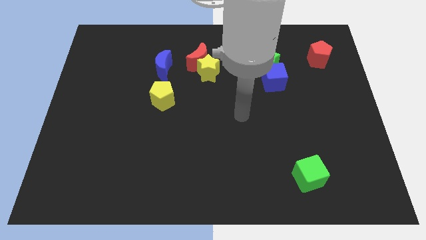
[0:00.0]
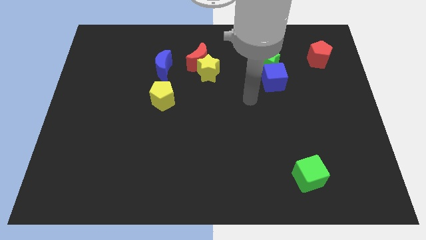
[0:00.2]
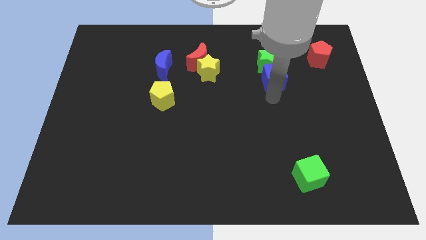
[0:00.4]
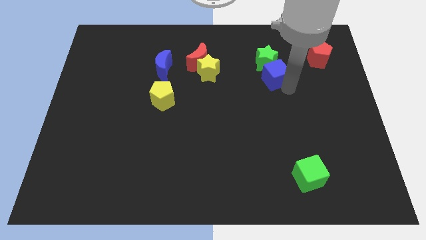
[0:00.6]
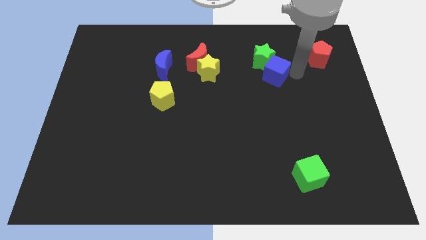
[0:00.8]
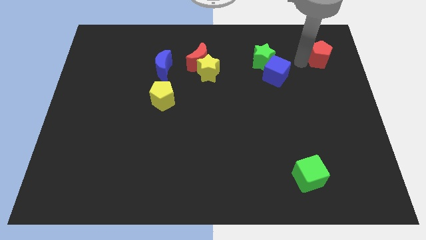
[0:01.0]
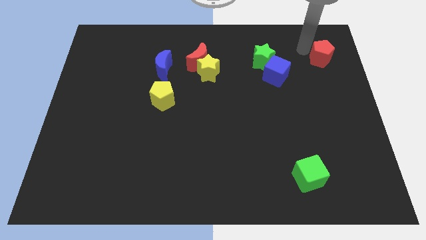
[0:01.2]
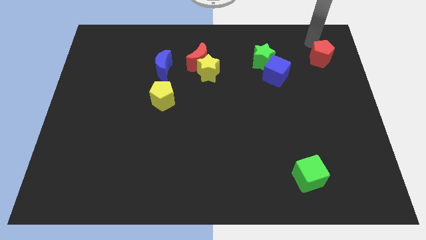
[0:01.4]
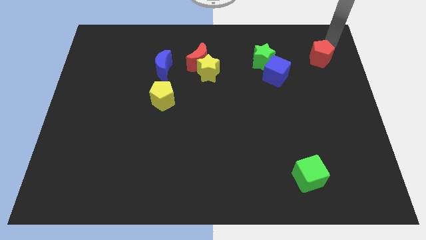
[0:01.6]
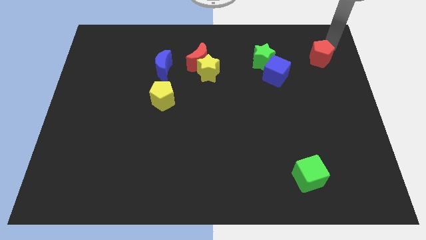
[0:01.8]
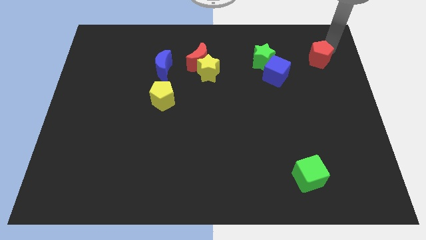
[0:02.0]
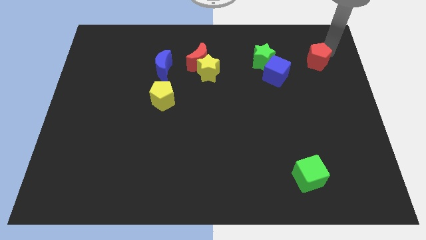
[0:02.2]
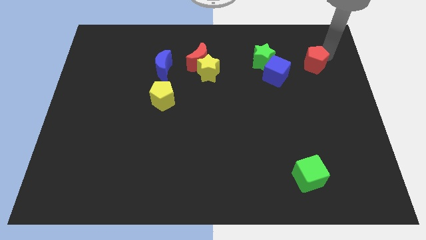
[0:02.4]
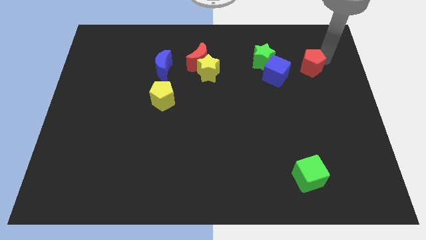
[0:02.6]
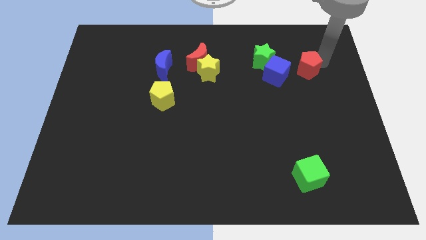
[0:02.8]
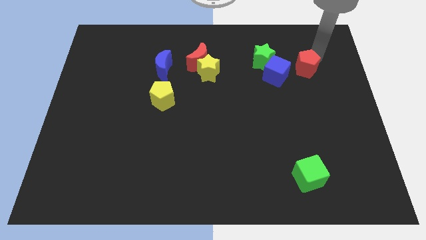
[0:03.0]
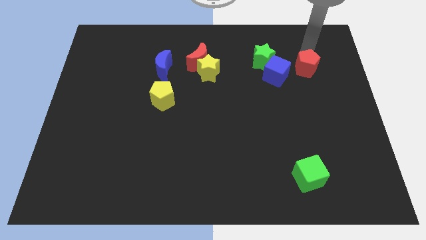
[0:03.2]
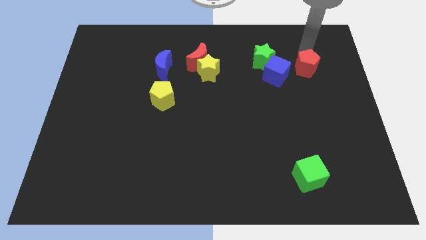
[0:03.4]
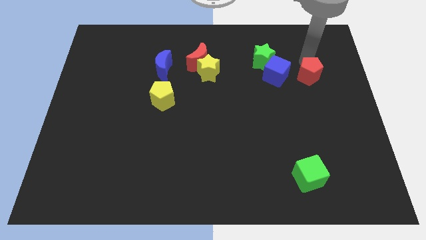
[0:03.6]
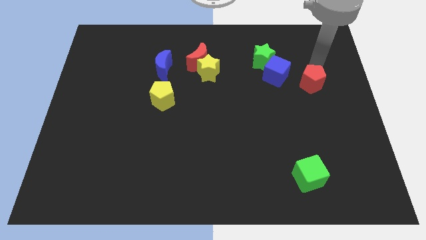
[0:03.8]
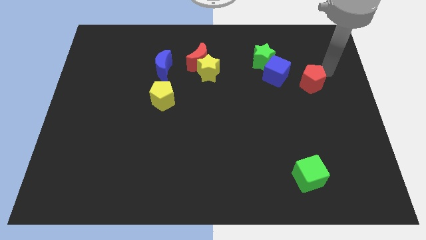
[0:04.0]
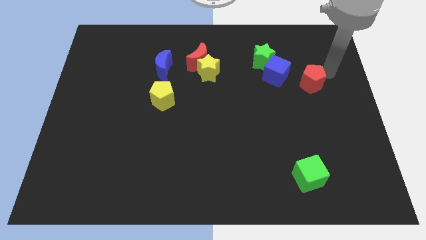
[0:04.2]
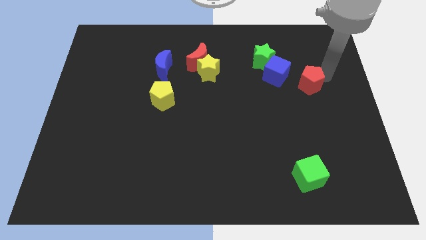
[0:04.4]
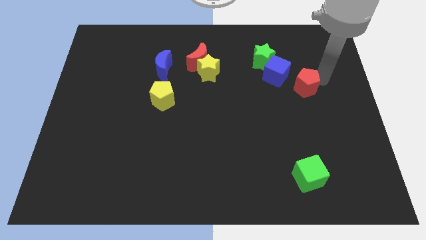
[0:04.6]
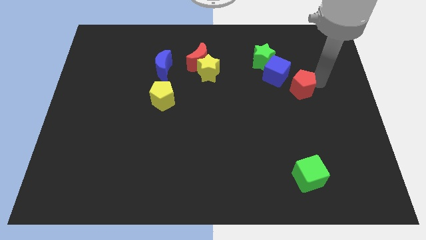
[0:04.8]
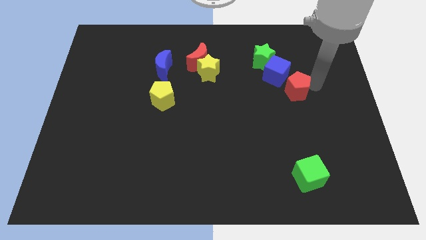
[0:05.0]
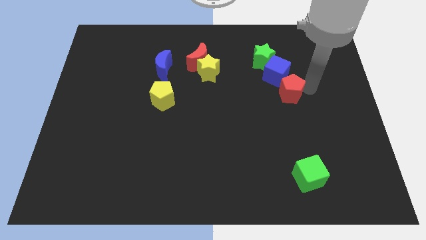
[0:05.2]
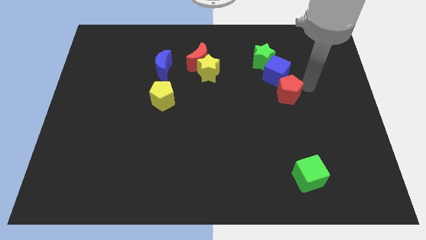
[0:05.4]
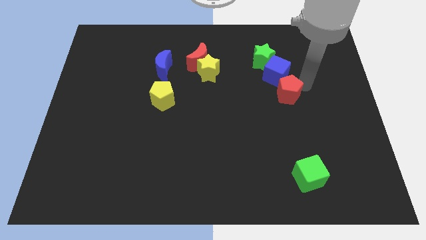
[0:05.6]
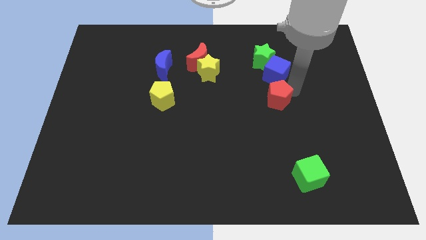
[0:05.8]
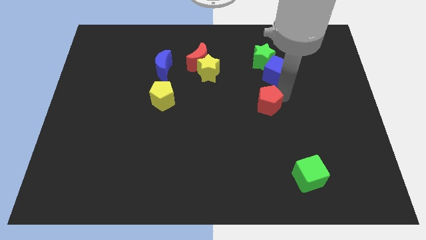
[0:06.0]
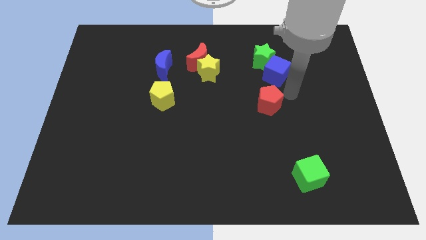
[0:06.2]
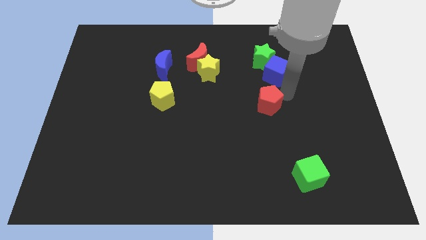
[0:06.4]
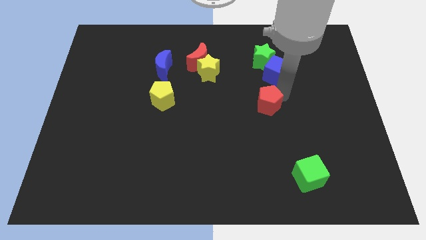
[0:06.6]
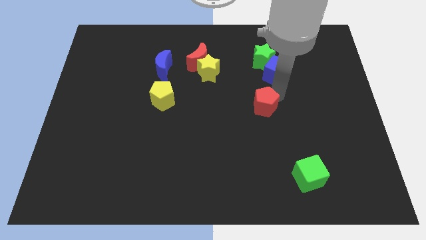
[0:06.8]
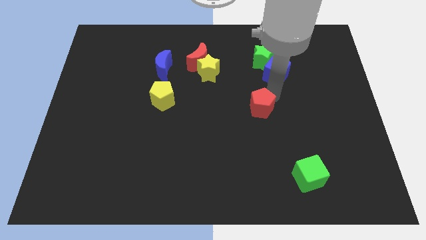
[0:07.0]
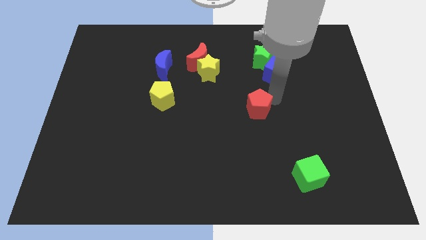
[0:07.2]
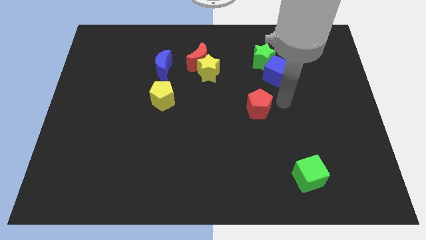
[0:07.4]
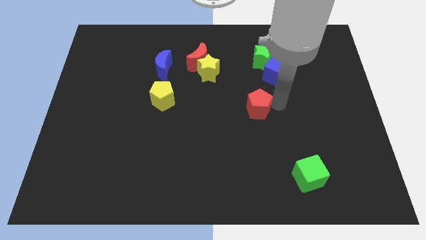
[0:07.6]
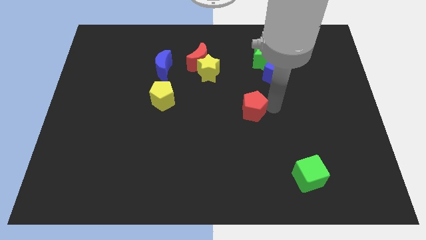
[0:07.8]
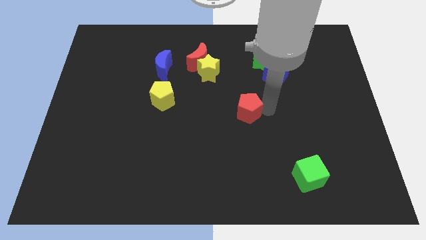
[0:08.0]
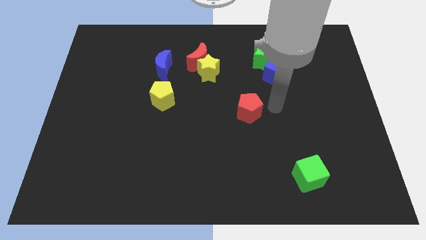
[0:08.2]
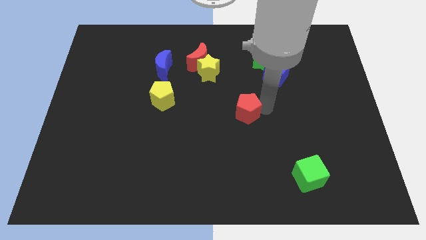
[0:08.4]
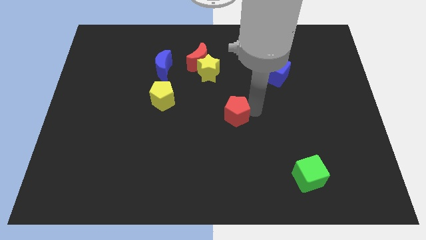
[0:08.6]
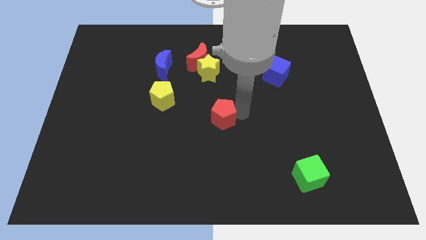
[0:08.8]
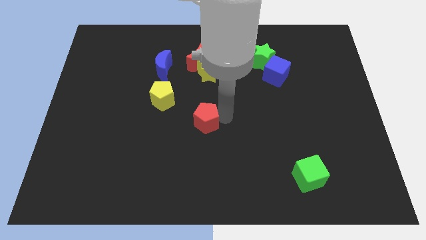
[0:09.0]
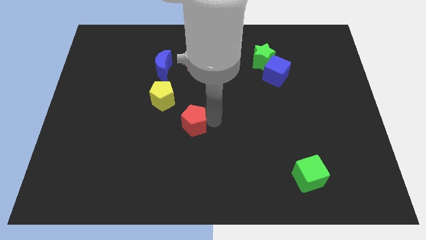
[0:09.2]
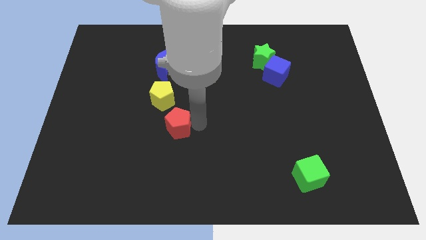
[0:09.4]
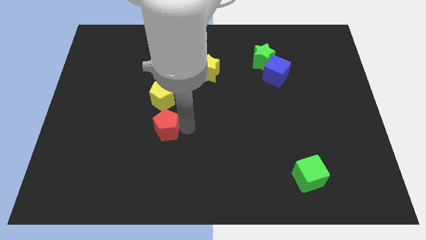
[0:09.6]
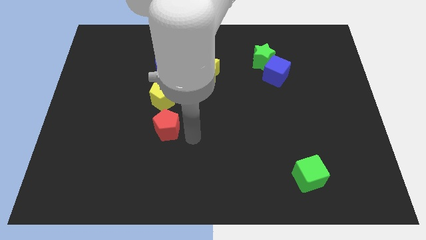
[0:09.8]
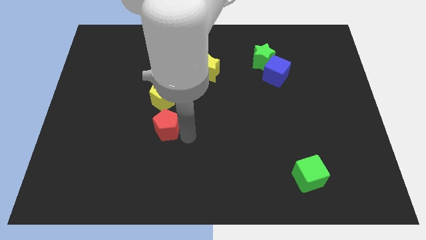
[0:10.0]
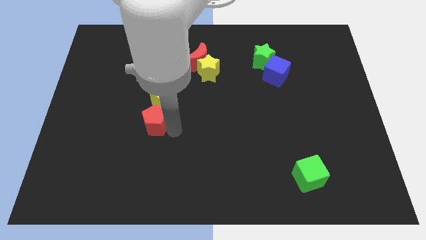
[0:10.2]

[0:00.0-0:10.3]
push the red pentagon diagonally down and to the left of the yellow pentagon

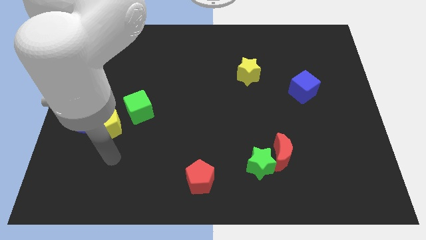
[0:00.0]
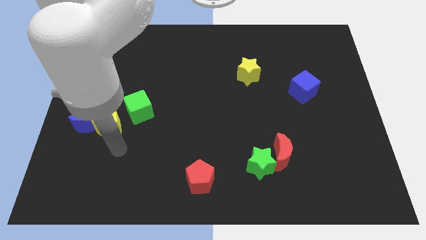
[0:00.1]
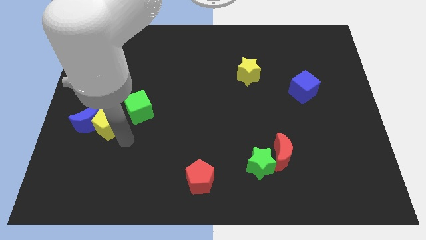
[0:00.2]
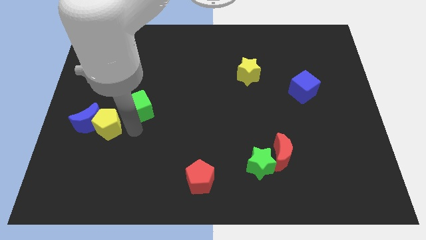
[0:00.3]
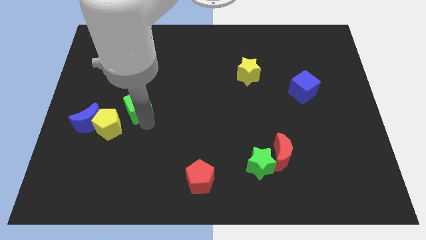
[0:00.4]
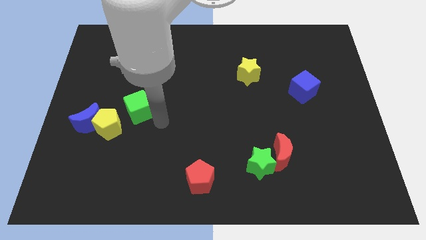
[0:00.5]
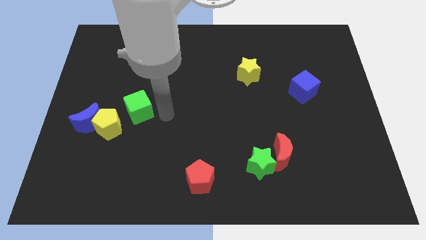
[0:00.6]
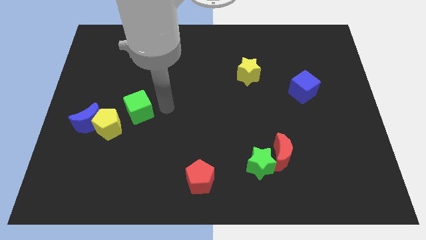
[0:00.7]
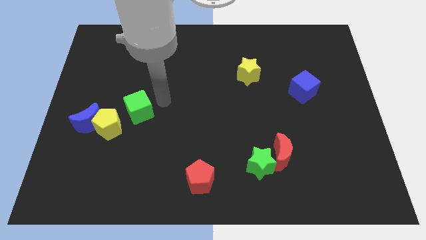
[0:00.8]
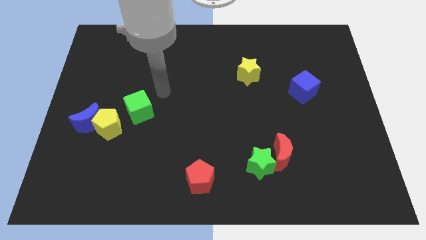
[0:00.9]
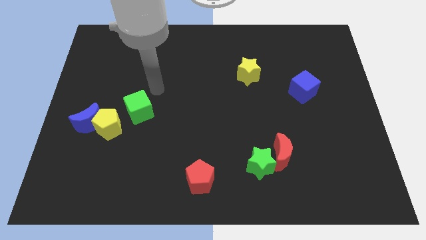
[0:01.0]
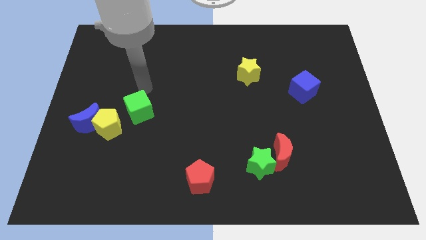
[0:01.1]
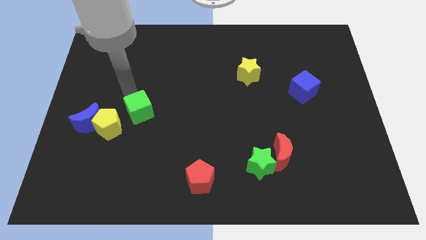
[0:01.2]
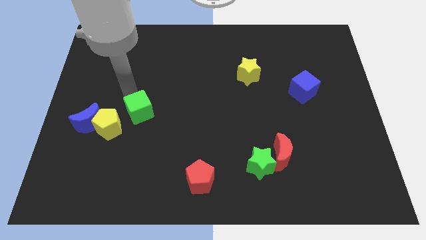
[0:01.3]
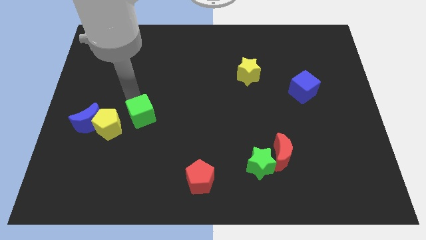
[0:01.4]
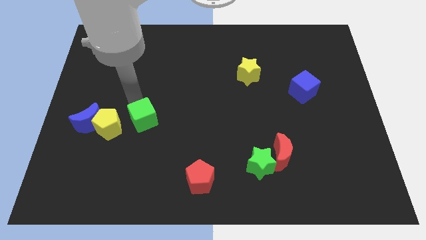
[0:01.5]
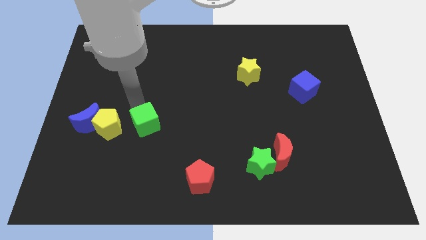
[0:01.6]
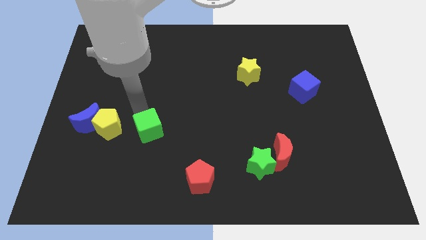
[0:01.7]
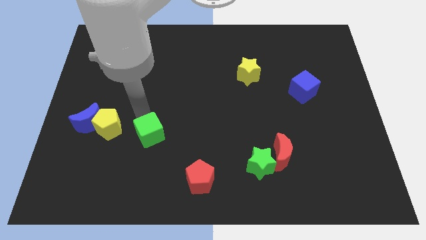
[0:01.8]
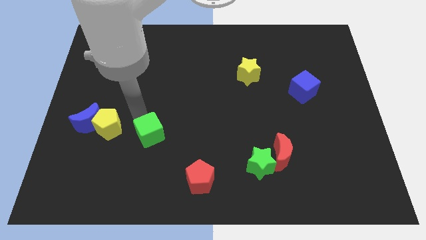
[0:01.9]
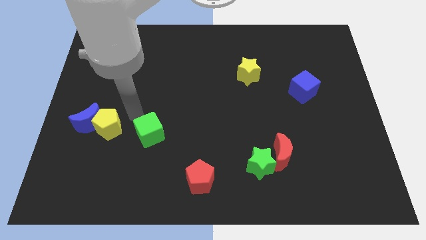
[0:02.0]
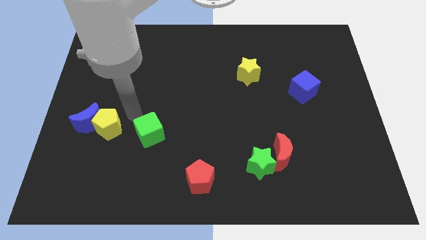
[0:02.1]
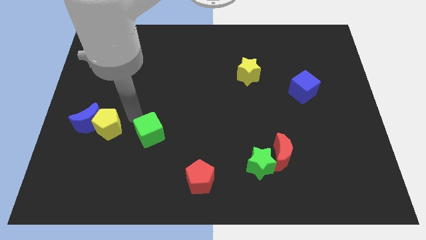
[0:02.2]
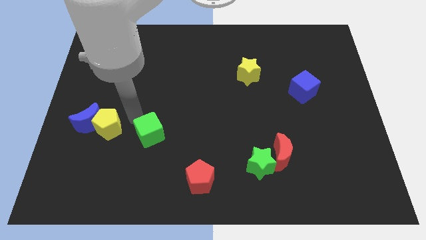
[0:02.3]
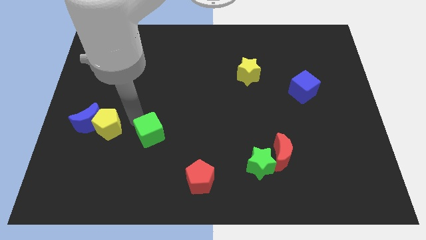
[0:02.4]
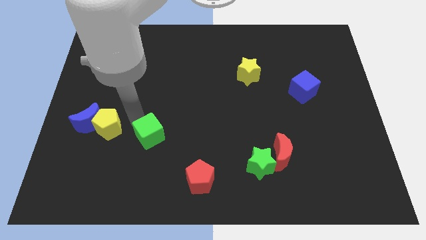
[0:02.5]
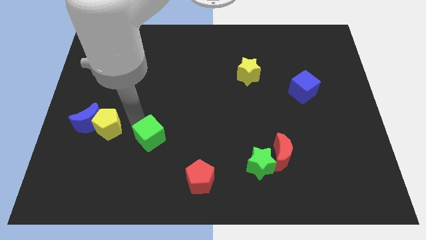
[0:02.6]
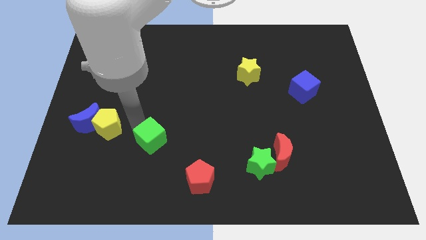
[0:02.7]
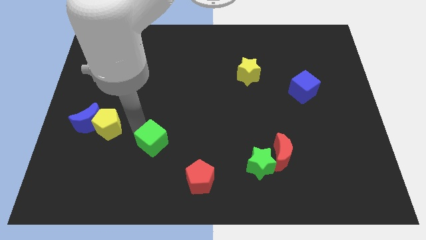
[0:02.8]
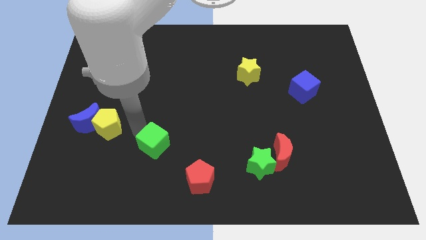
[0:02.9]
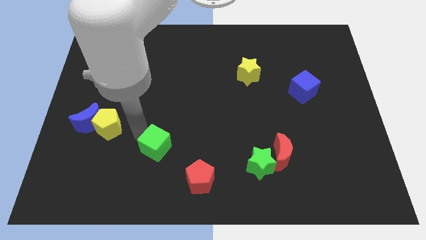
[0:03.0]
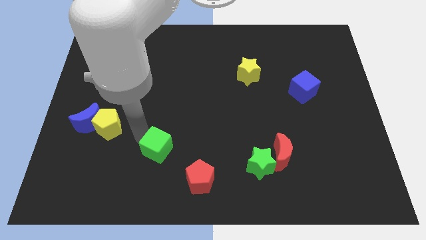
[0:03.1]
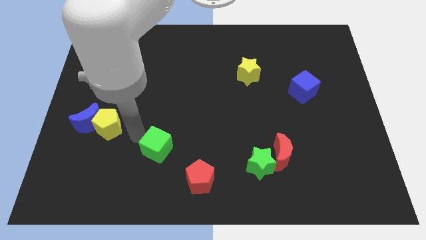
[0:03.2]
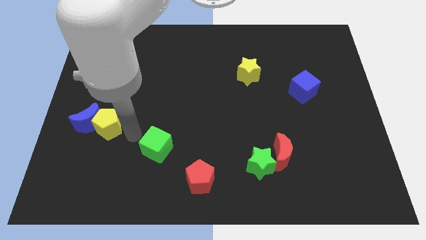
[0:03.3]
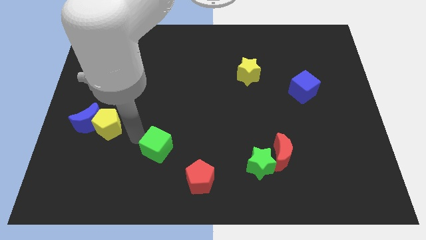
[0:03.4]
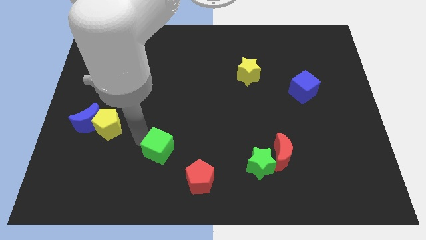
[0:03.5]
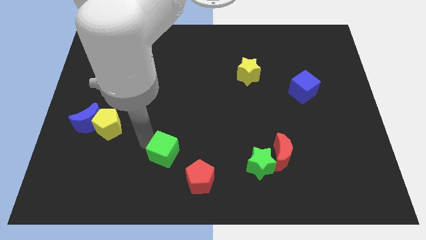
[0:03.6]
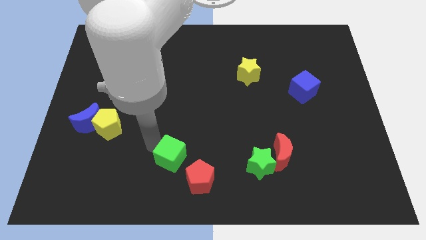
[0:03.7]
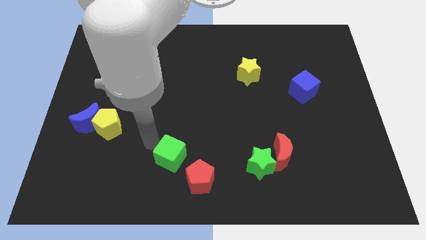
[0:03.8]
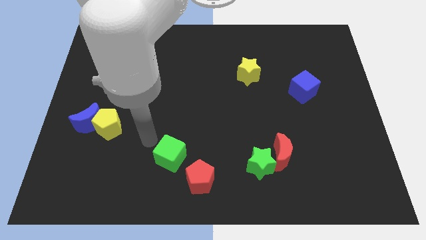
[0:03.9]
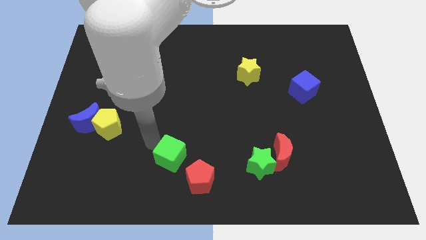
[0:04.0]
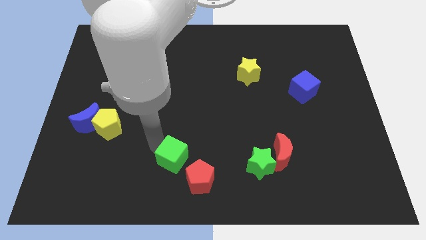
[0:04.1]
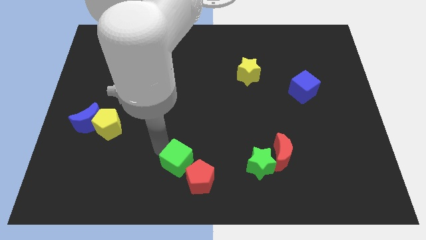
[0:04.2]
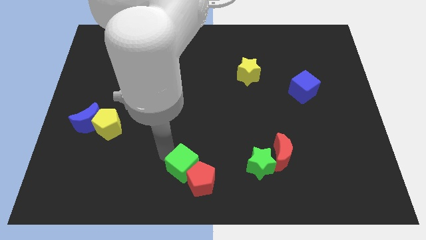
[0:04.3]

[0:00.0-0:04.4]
move the green cube to the left of the green star
